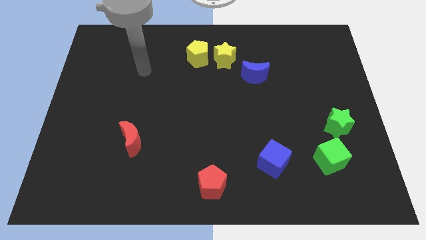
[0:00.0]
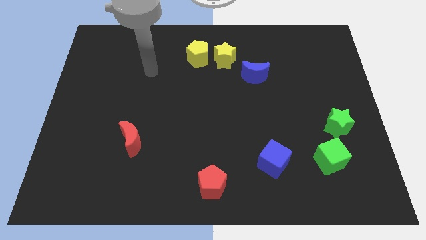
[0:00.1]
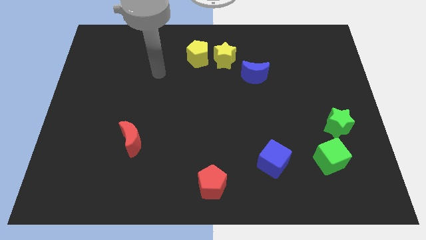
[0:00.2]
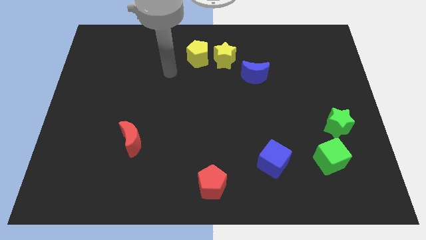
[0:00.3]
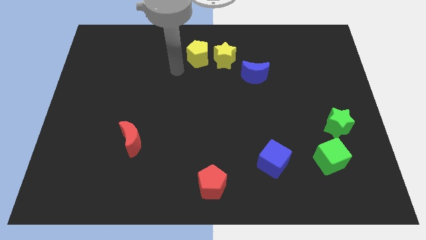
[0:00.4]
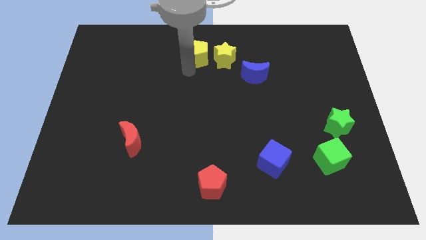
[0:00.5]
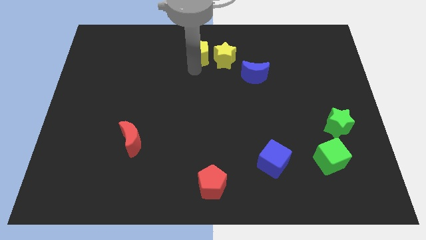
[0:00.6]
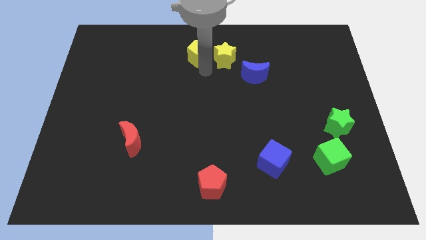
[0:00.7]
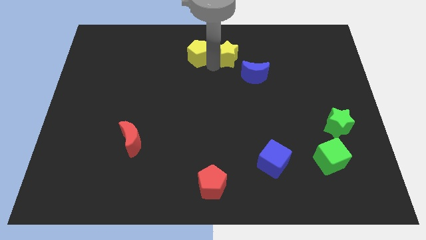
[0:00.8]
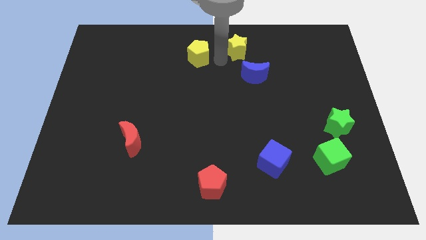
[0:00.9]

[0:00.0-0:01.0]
separate the yellow pentagon from the yellow star

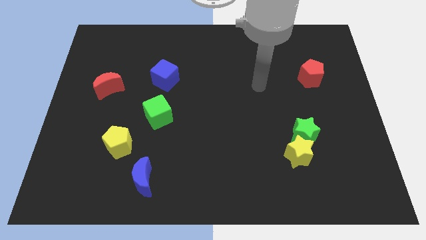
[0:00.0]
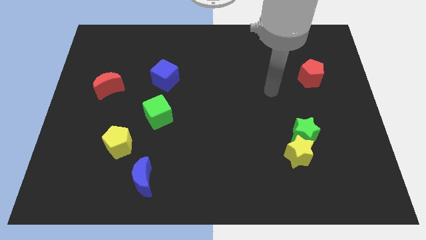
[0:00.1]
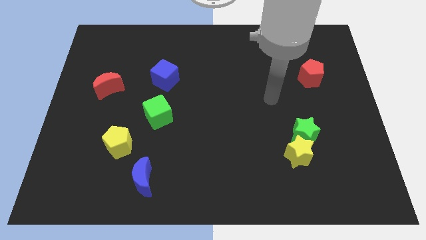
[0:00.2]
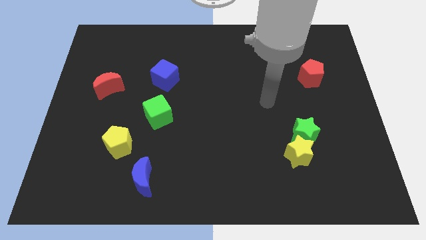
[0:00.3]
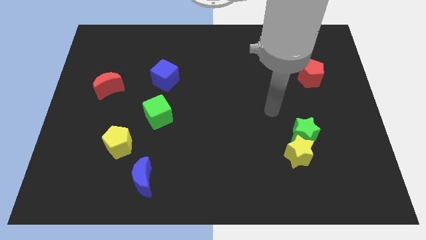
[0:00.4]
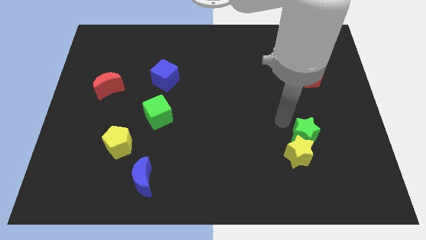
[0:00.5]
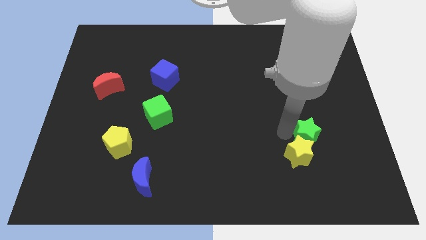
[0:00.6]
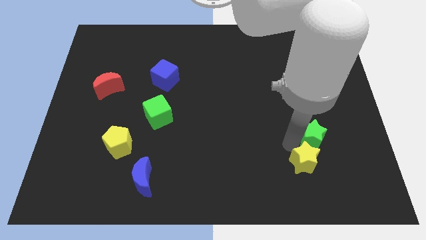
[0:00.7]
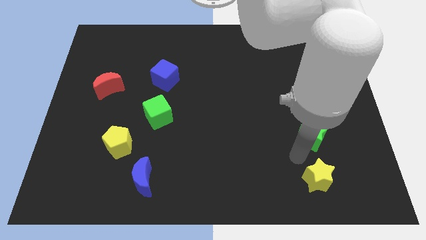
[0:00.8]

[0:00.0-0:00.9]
pull the green star apart from the yellow star

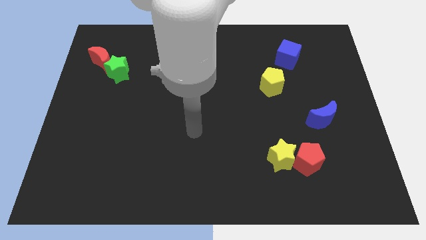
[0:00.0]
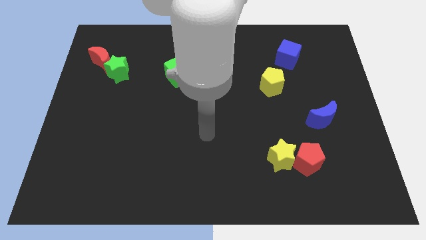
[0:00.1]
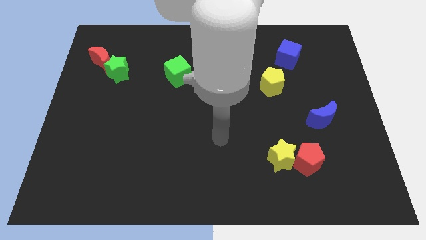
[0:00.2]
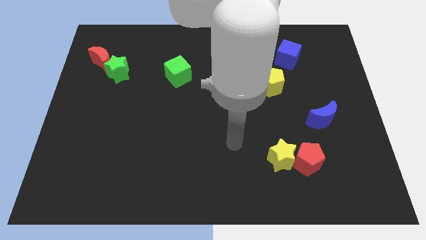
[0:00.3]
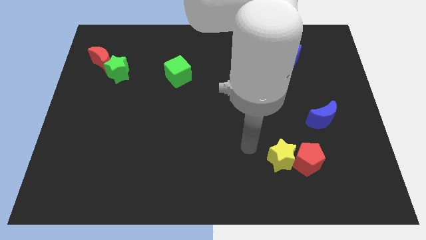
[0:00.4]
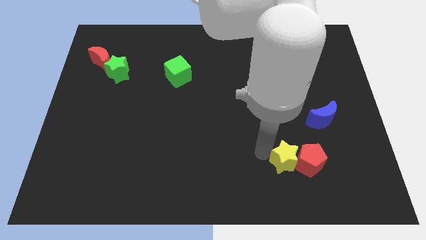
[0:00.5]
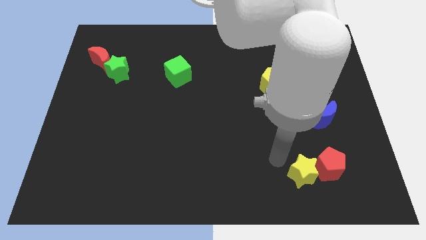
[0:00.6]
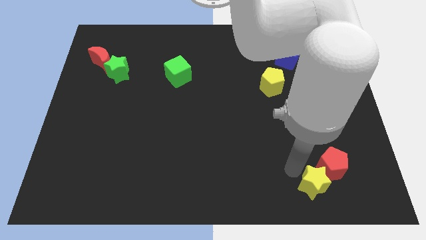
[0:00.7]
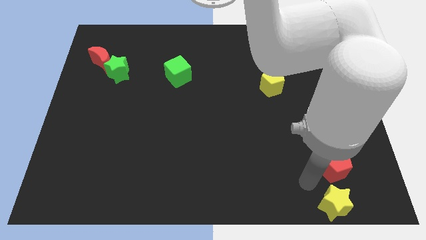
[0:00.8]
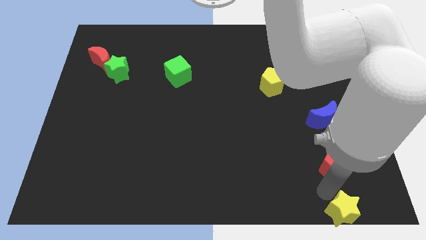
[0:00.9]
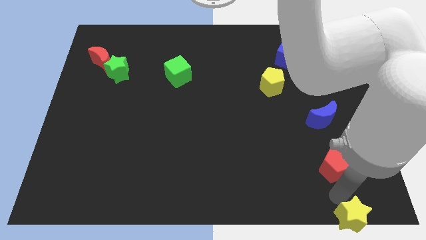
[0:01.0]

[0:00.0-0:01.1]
separate the red pentagon from the yellow star

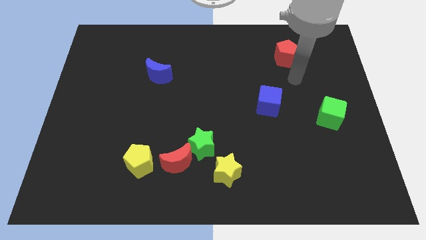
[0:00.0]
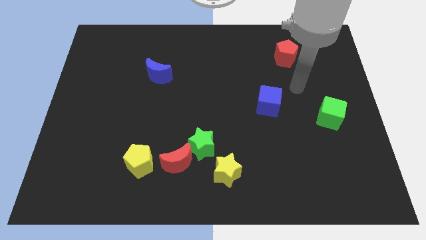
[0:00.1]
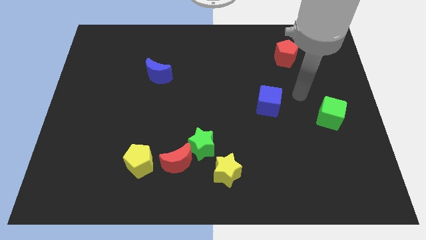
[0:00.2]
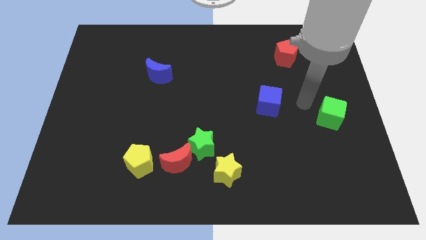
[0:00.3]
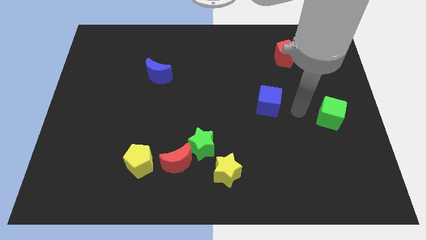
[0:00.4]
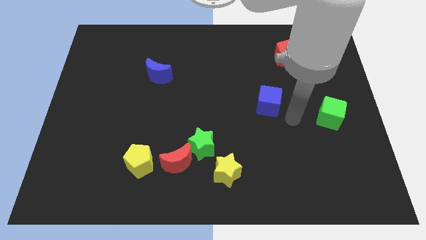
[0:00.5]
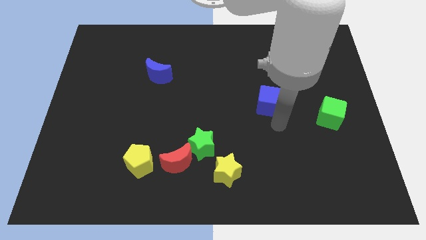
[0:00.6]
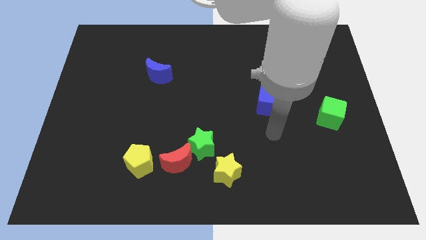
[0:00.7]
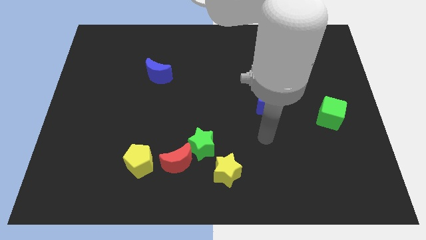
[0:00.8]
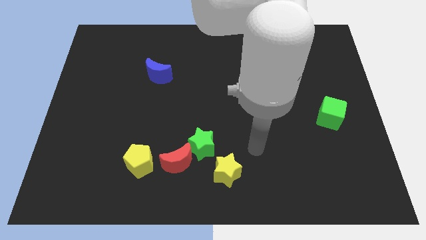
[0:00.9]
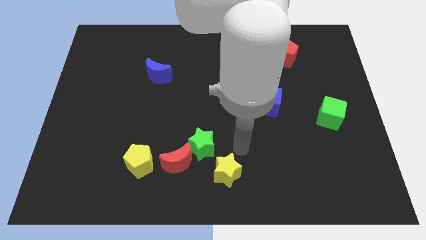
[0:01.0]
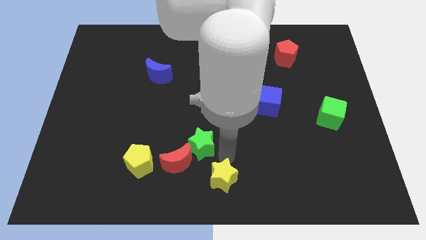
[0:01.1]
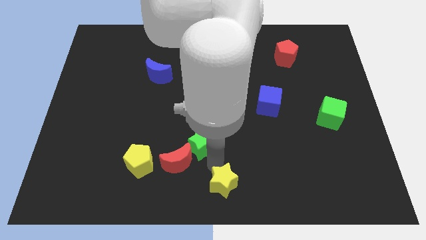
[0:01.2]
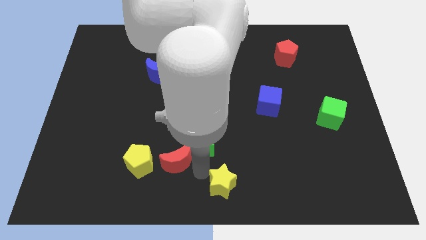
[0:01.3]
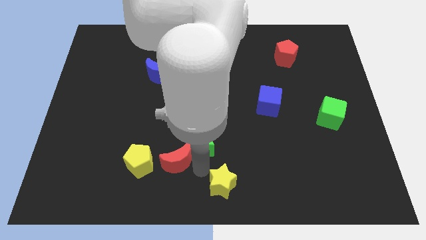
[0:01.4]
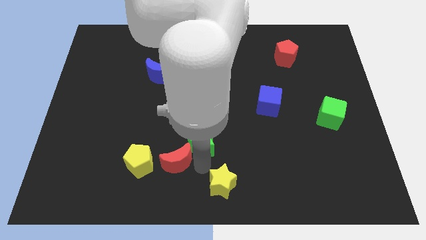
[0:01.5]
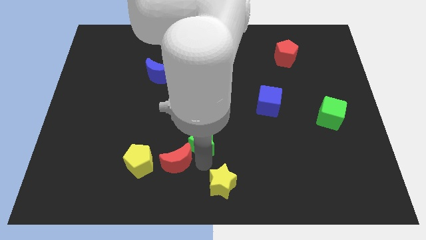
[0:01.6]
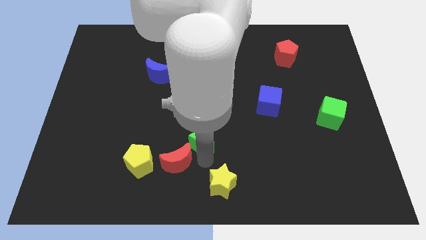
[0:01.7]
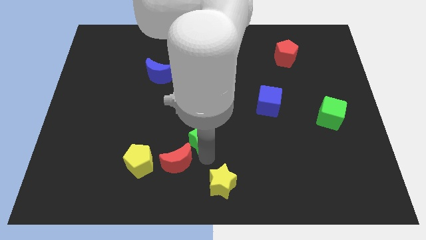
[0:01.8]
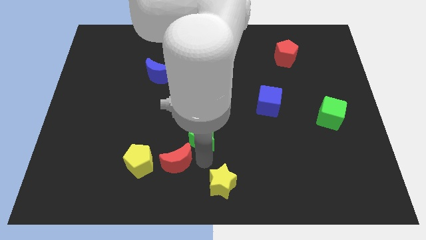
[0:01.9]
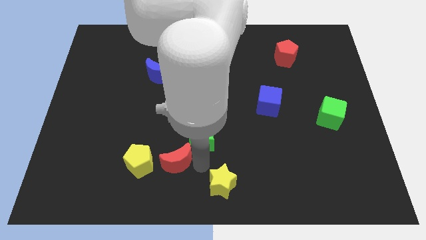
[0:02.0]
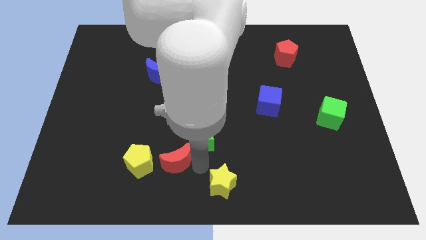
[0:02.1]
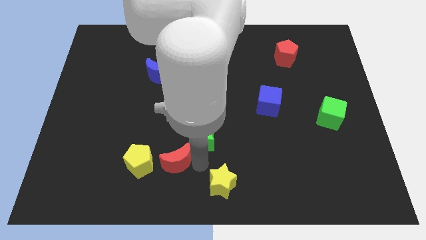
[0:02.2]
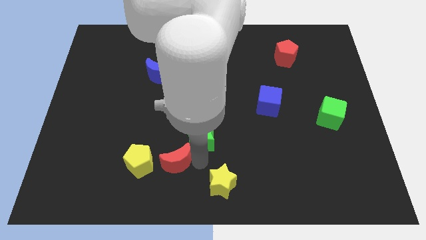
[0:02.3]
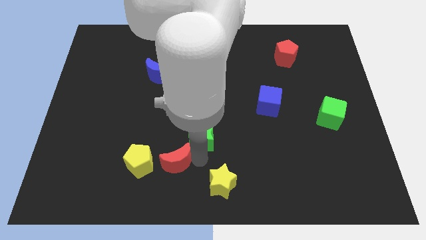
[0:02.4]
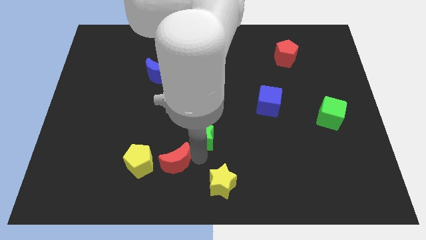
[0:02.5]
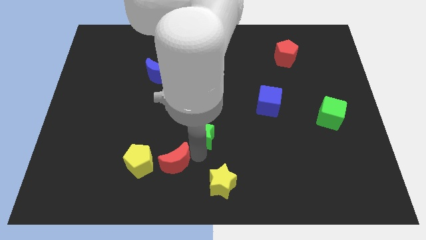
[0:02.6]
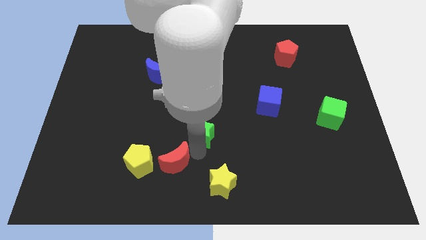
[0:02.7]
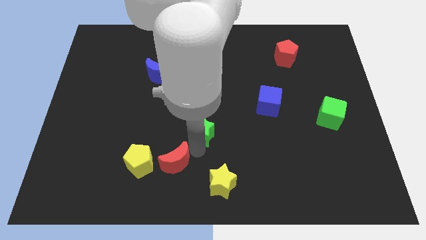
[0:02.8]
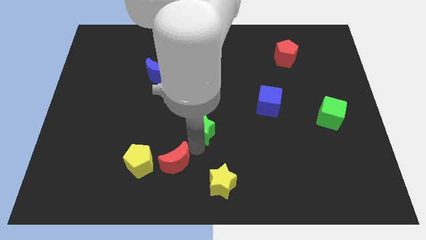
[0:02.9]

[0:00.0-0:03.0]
pull the green star apart from the red moon and yellow star

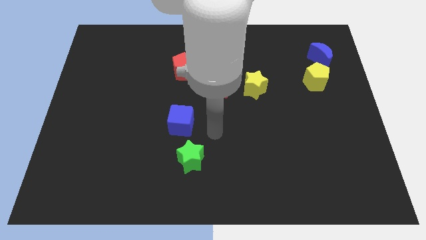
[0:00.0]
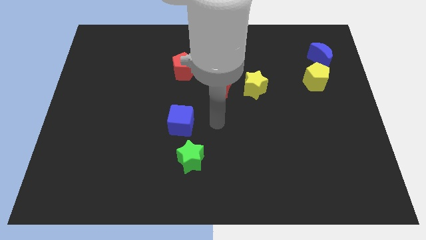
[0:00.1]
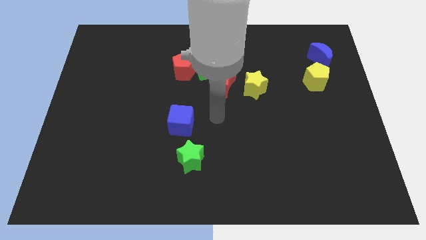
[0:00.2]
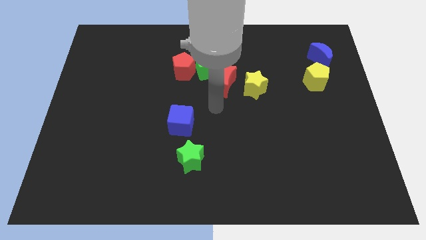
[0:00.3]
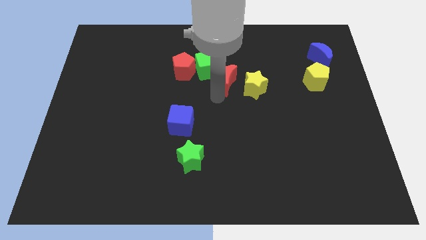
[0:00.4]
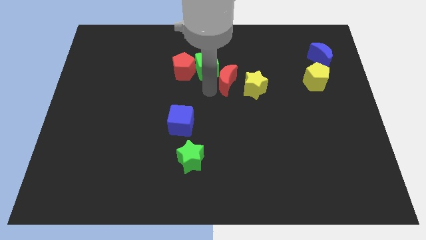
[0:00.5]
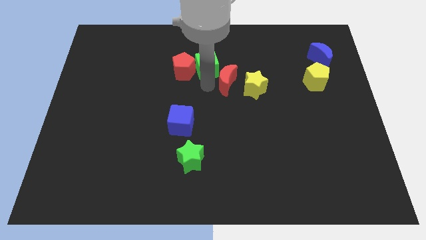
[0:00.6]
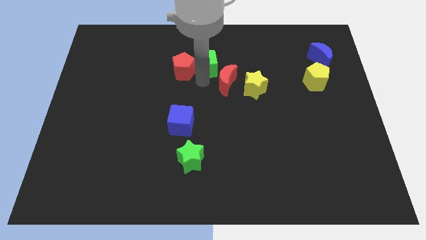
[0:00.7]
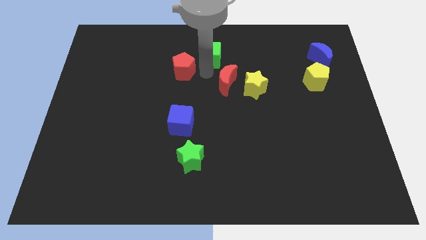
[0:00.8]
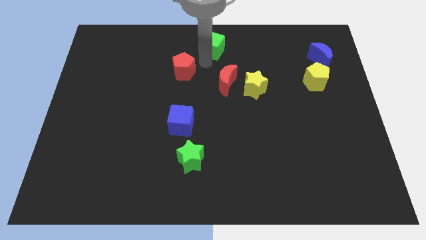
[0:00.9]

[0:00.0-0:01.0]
separate the red pentagon from the green cube

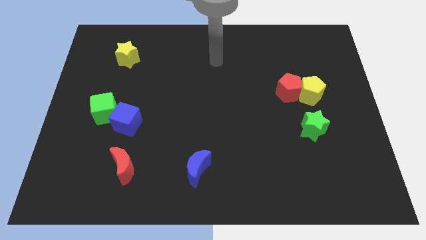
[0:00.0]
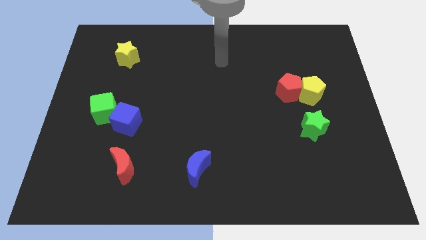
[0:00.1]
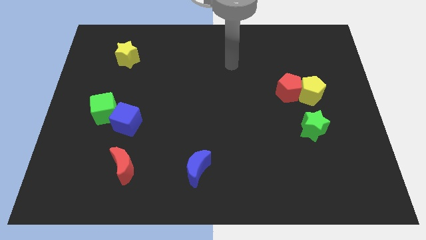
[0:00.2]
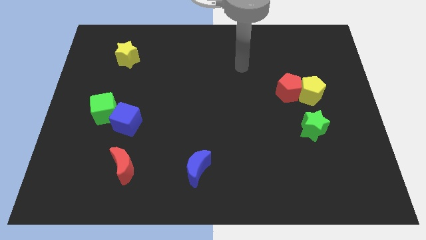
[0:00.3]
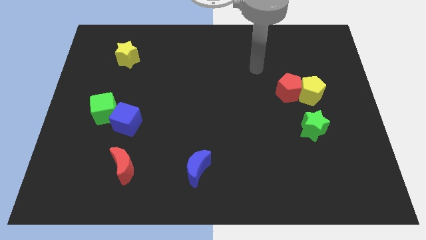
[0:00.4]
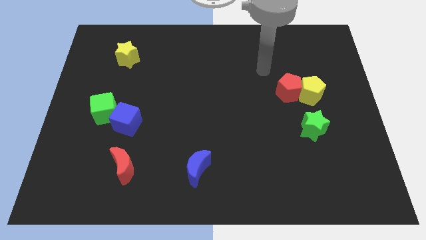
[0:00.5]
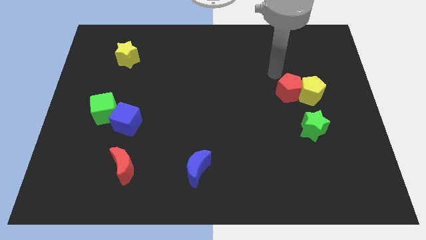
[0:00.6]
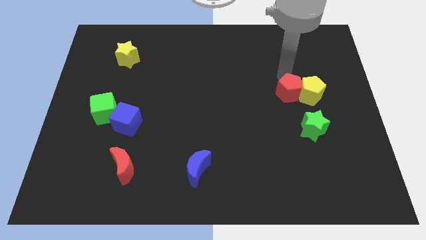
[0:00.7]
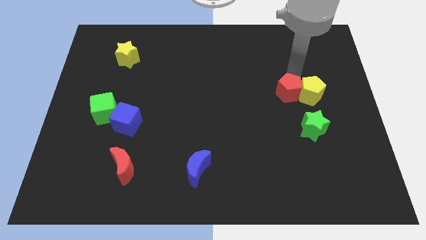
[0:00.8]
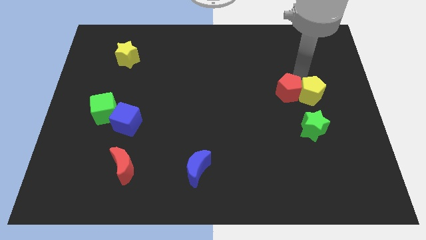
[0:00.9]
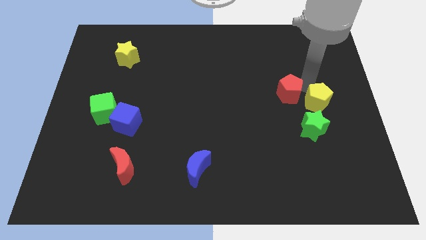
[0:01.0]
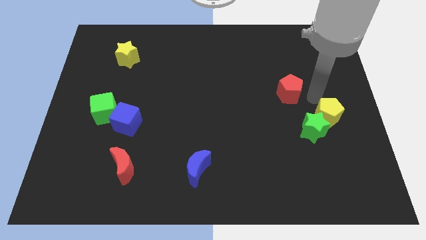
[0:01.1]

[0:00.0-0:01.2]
pull the red pentagon apart from the yellow pentagon

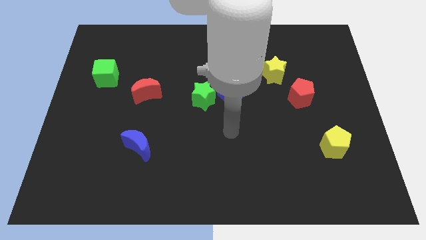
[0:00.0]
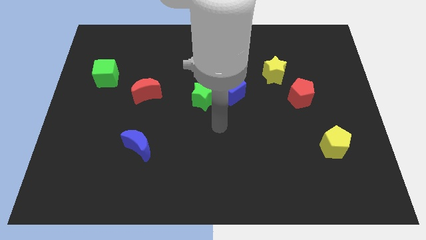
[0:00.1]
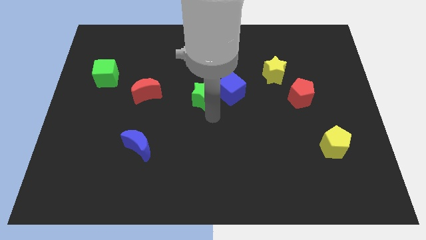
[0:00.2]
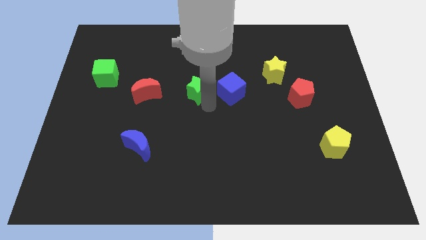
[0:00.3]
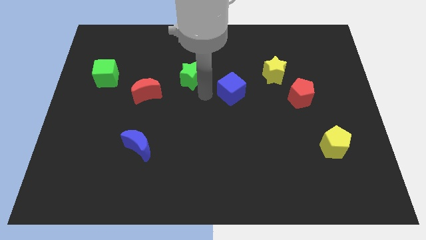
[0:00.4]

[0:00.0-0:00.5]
move the blue cube away from the green star

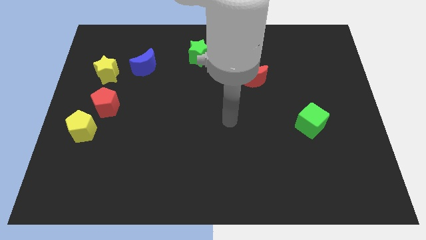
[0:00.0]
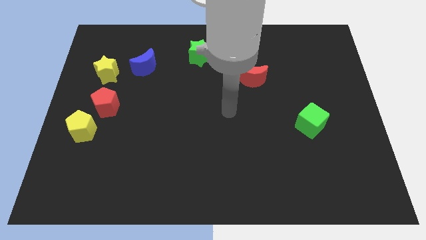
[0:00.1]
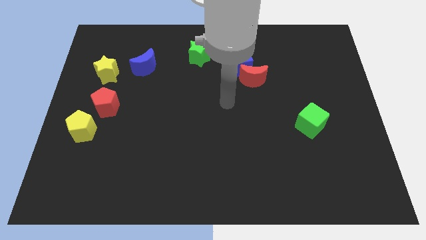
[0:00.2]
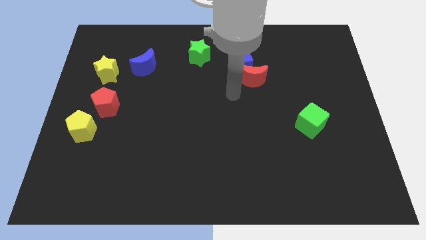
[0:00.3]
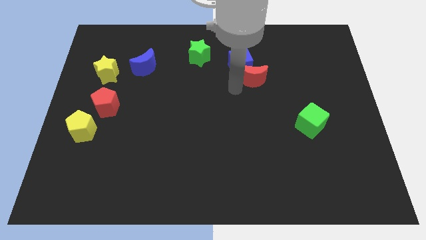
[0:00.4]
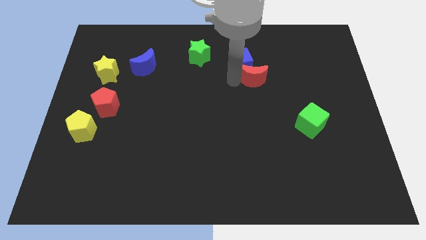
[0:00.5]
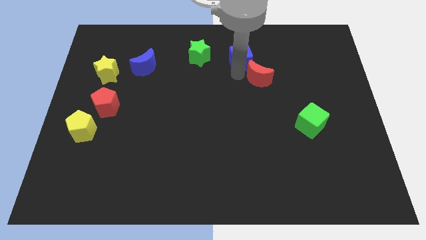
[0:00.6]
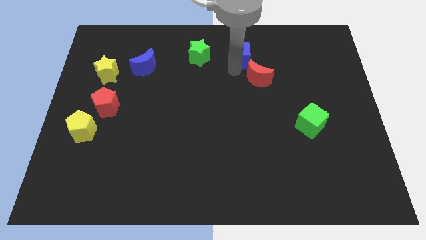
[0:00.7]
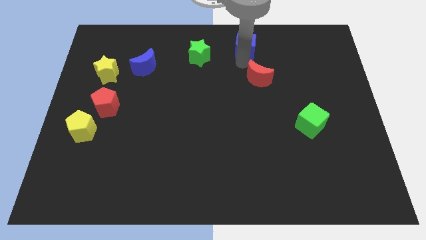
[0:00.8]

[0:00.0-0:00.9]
separate the red moon from the blue cube
